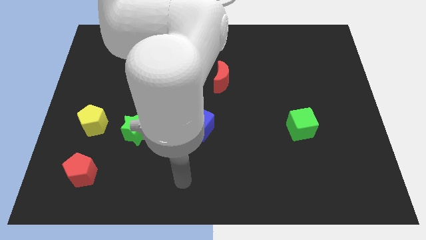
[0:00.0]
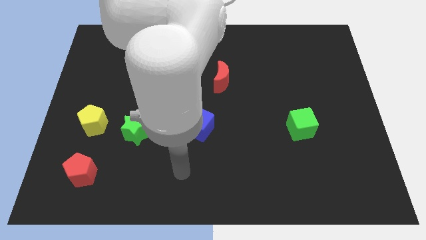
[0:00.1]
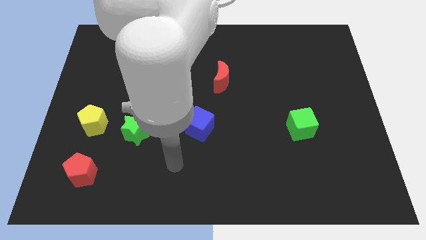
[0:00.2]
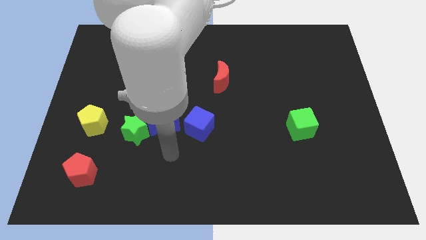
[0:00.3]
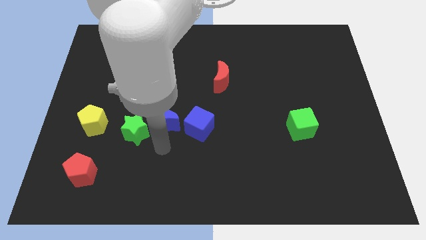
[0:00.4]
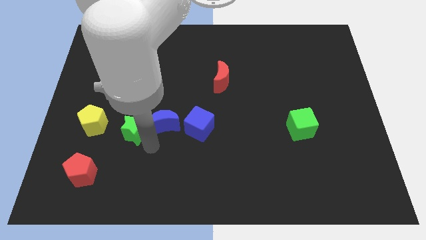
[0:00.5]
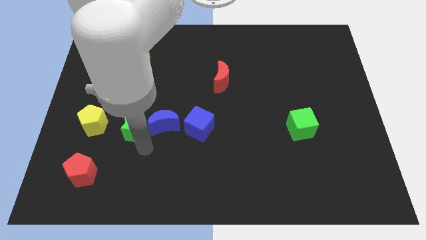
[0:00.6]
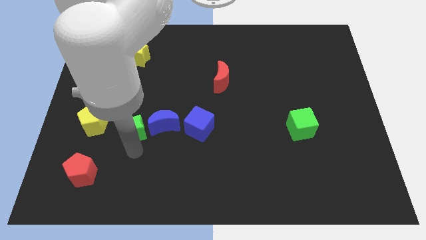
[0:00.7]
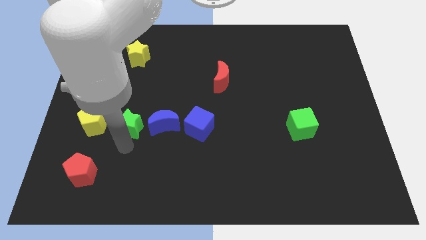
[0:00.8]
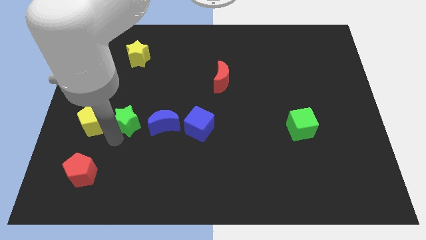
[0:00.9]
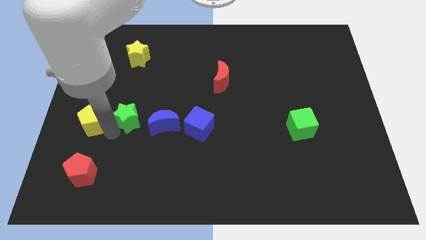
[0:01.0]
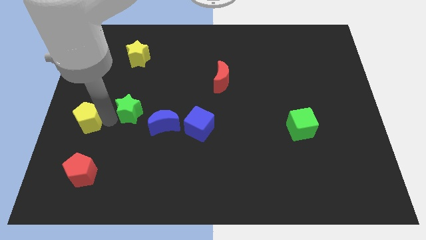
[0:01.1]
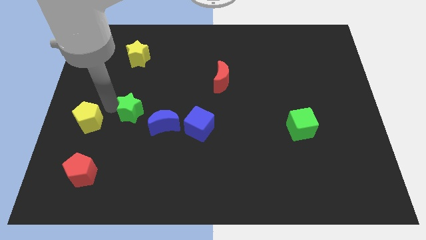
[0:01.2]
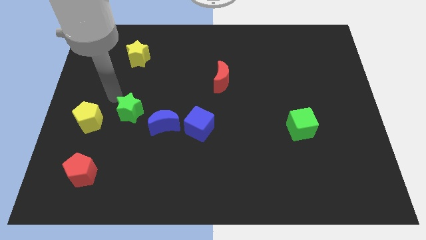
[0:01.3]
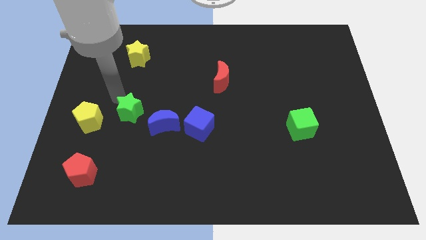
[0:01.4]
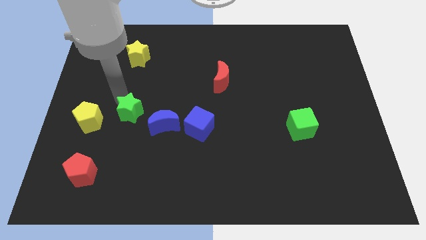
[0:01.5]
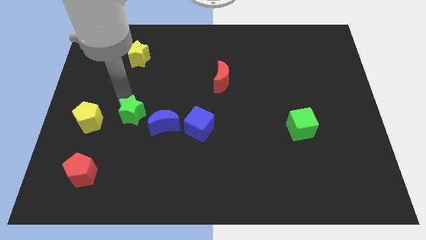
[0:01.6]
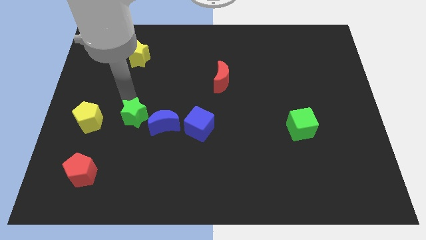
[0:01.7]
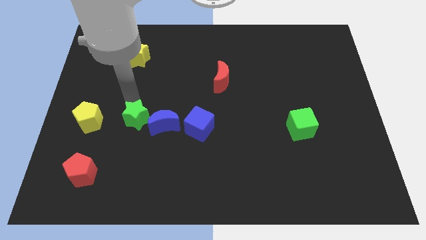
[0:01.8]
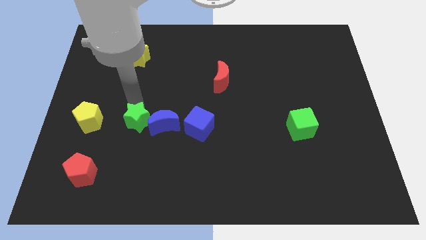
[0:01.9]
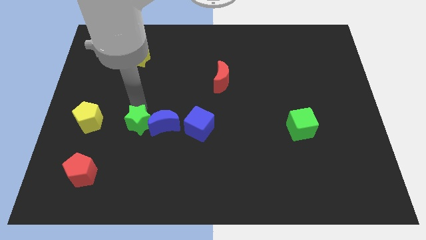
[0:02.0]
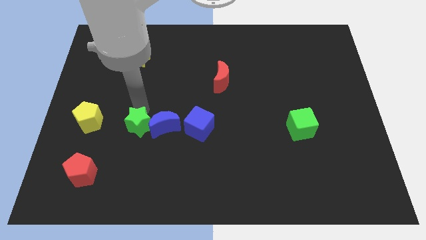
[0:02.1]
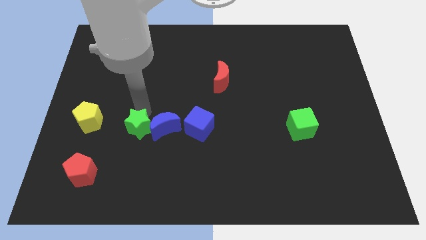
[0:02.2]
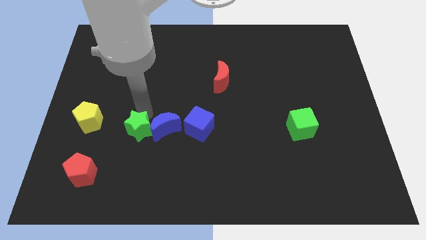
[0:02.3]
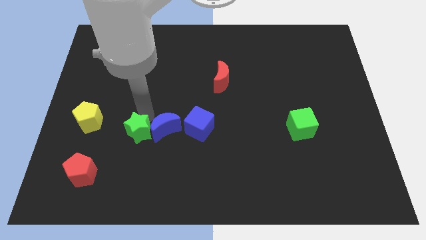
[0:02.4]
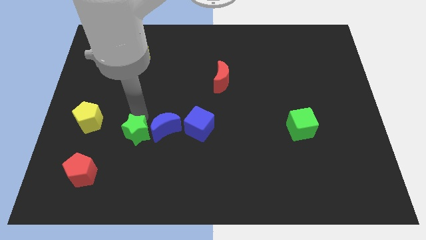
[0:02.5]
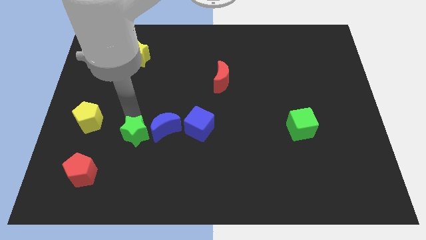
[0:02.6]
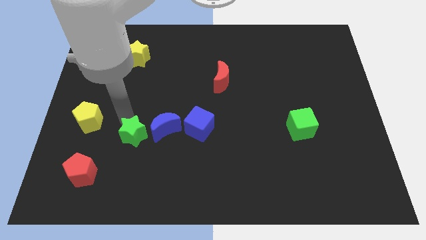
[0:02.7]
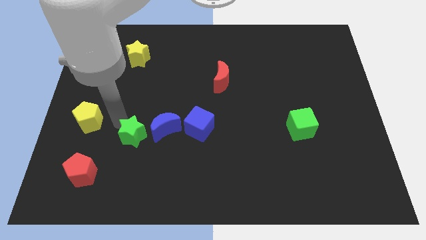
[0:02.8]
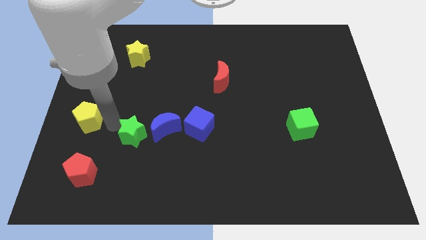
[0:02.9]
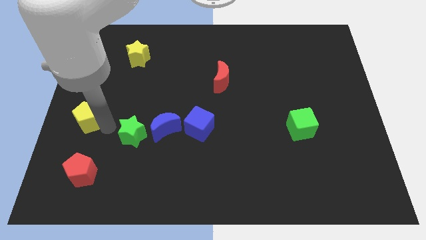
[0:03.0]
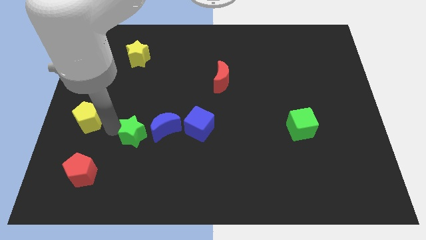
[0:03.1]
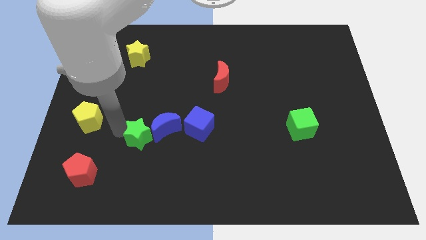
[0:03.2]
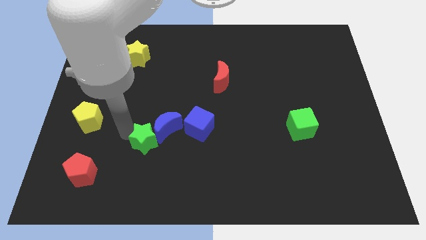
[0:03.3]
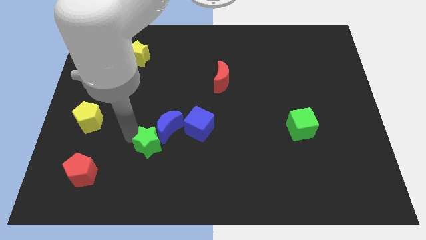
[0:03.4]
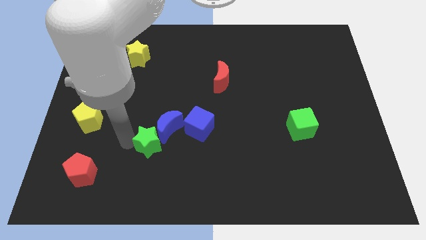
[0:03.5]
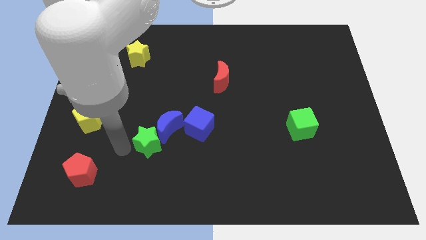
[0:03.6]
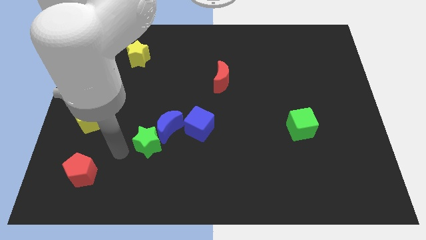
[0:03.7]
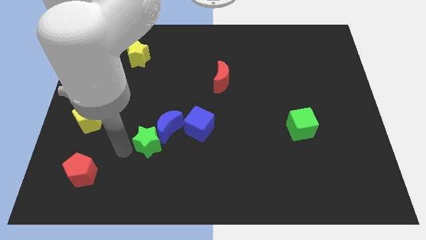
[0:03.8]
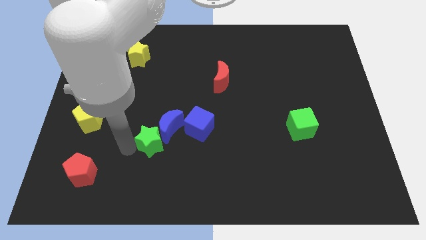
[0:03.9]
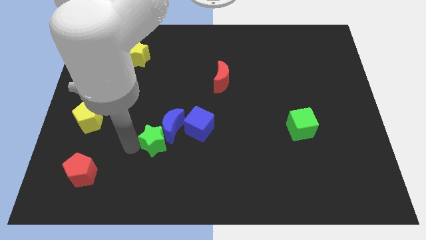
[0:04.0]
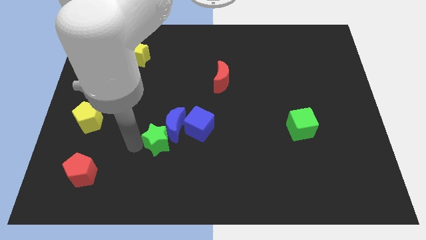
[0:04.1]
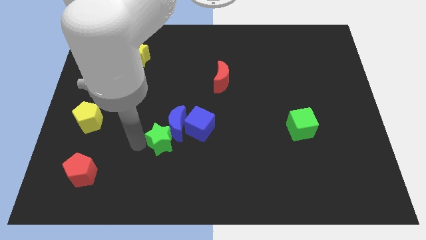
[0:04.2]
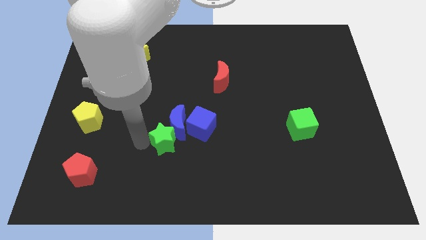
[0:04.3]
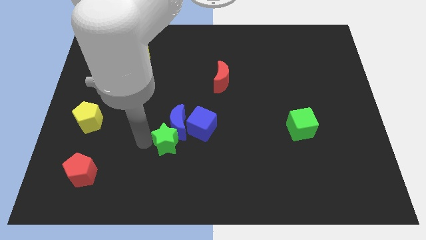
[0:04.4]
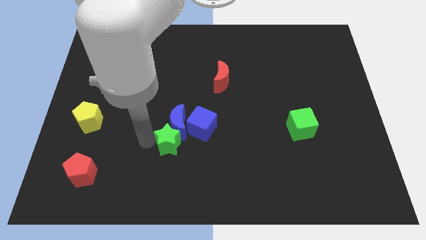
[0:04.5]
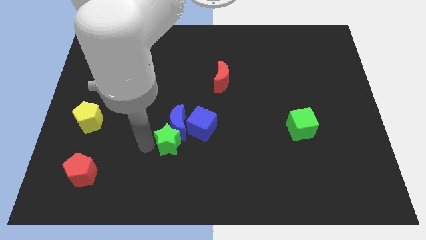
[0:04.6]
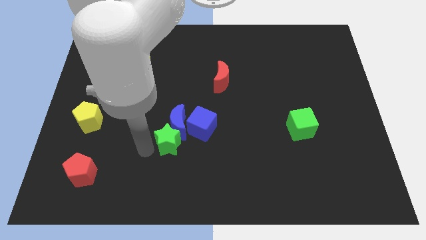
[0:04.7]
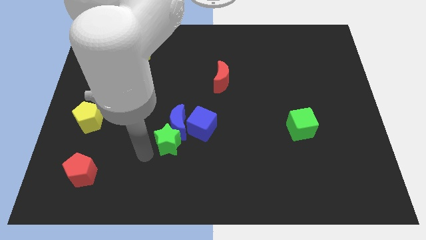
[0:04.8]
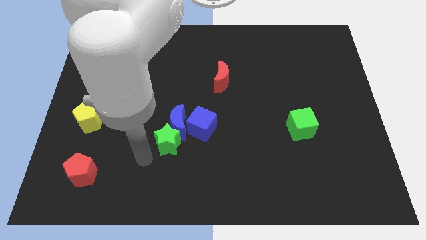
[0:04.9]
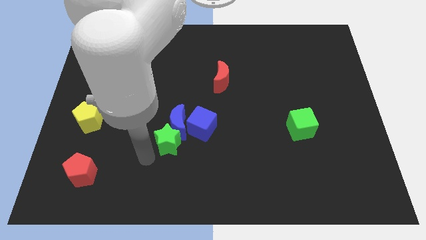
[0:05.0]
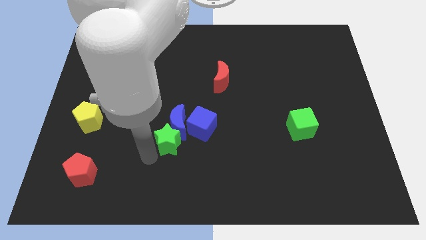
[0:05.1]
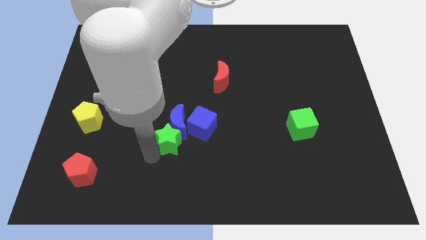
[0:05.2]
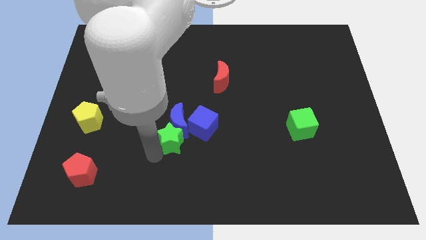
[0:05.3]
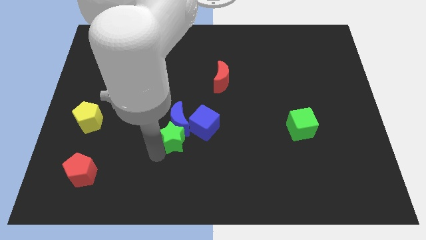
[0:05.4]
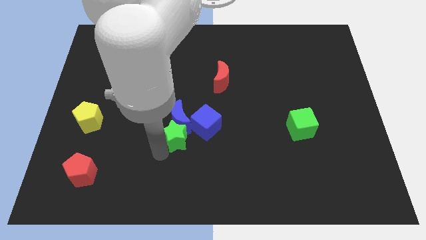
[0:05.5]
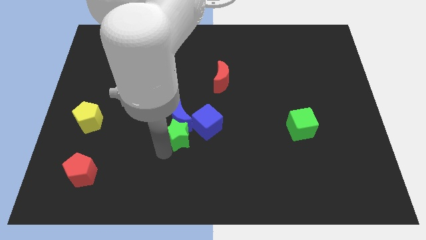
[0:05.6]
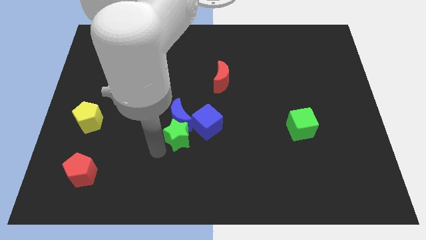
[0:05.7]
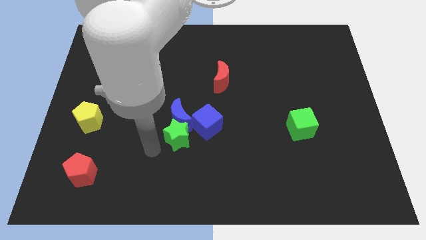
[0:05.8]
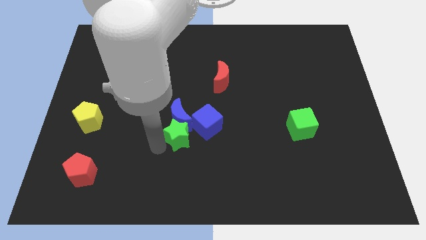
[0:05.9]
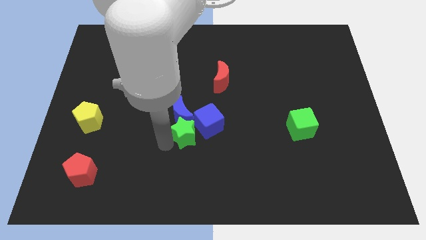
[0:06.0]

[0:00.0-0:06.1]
push the green star towards the blue cube

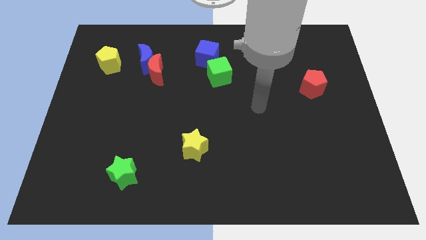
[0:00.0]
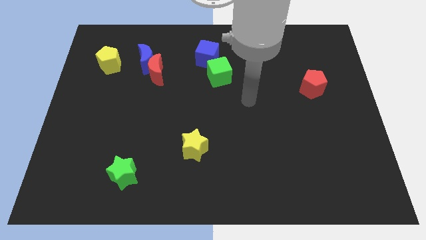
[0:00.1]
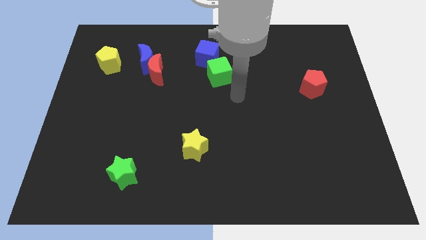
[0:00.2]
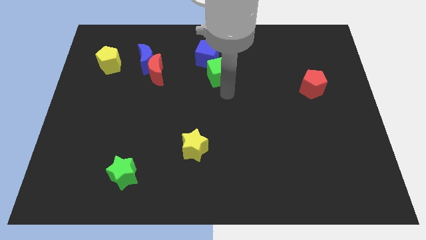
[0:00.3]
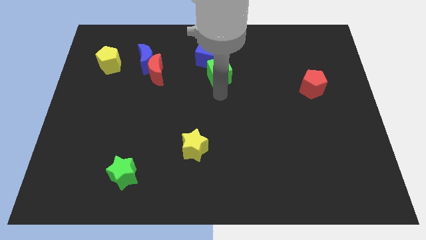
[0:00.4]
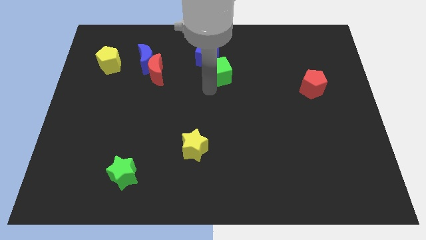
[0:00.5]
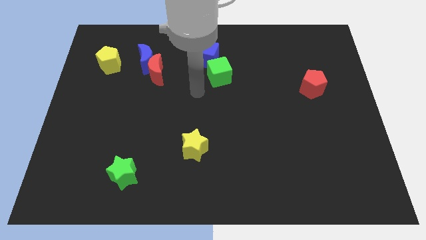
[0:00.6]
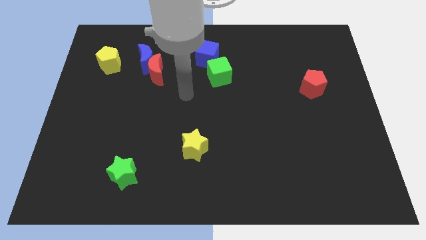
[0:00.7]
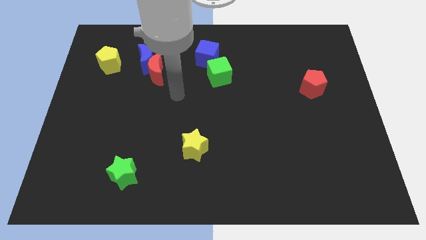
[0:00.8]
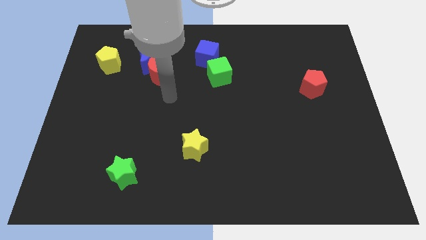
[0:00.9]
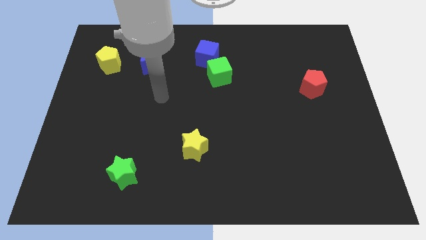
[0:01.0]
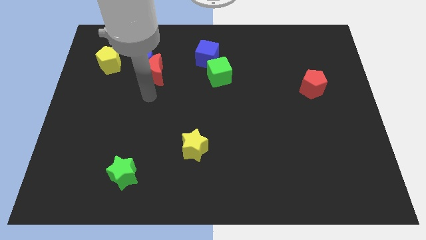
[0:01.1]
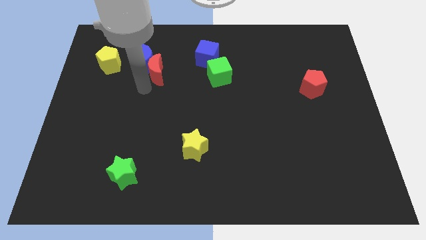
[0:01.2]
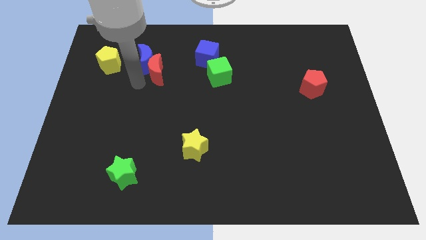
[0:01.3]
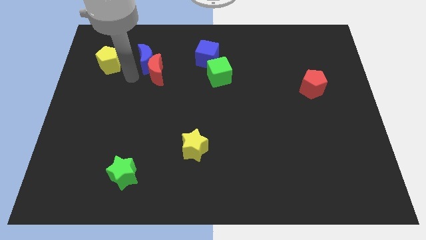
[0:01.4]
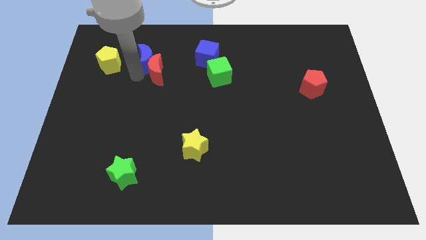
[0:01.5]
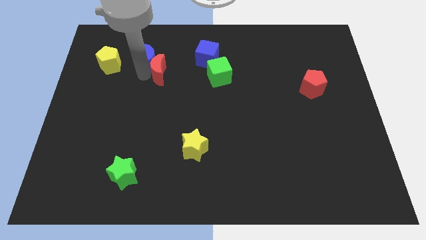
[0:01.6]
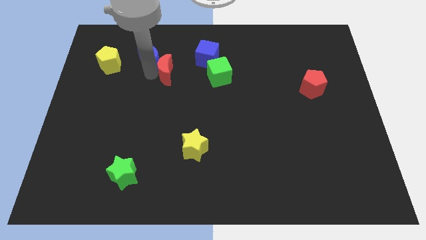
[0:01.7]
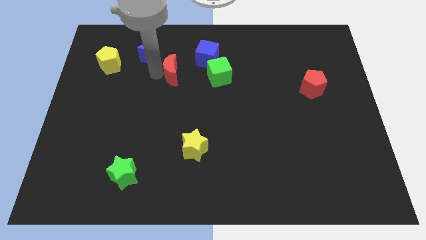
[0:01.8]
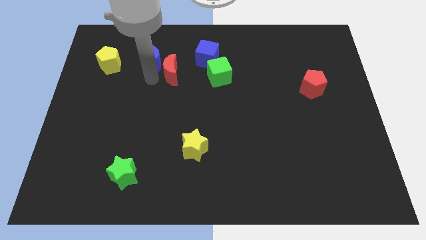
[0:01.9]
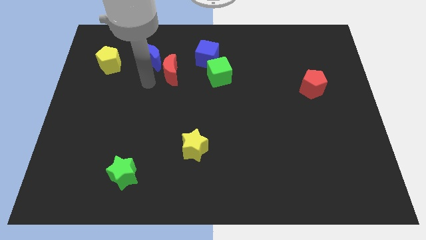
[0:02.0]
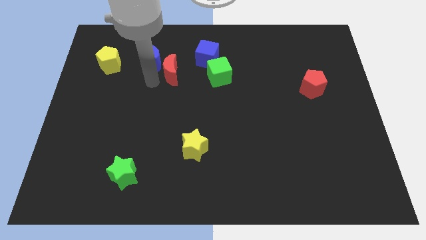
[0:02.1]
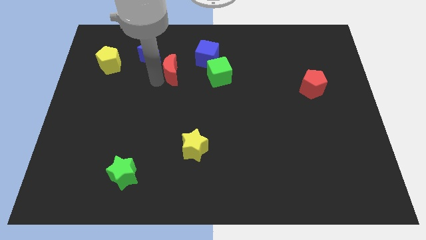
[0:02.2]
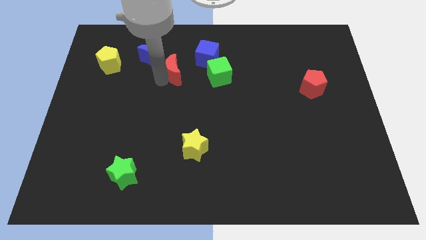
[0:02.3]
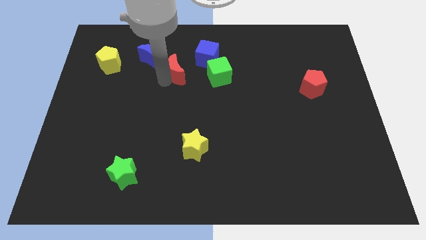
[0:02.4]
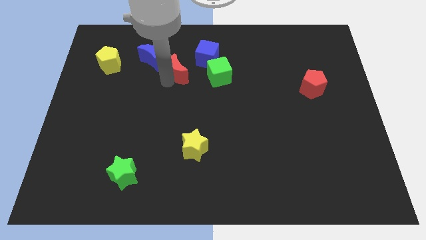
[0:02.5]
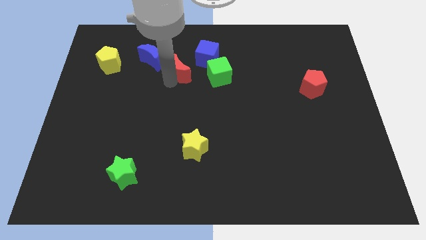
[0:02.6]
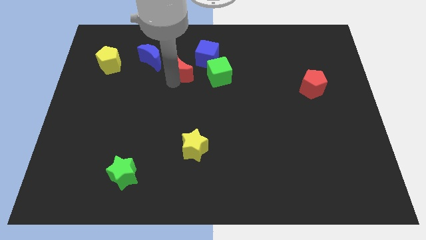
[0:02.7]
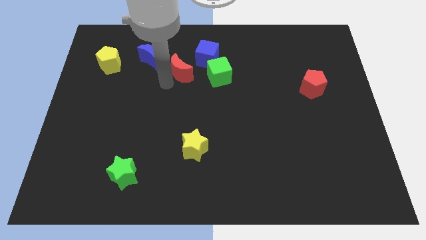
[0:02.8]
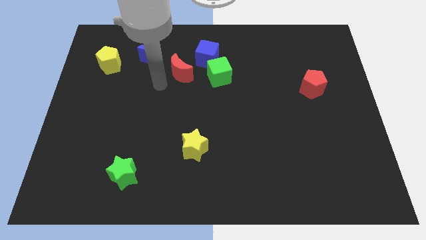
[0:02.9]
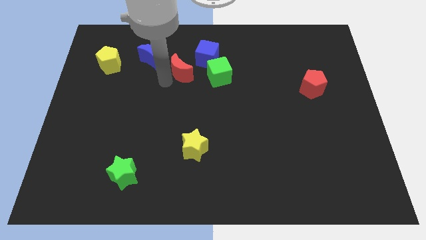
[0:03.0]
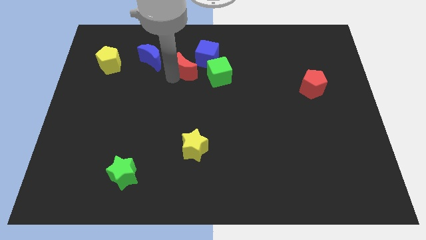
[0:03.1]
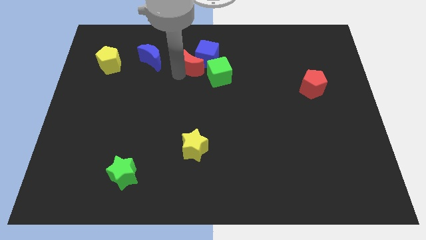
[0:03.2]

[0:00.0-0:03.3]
slide the red moon to the blue cube
